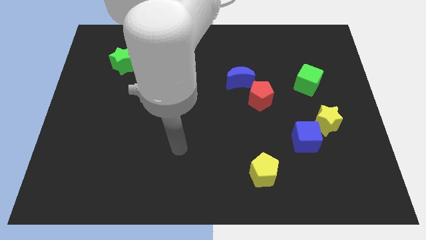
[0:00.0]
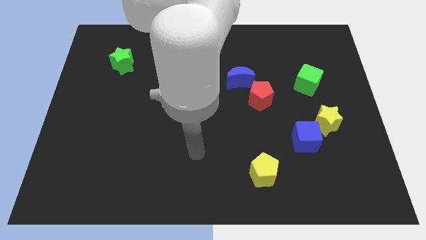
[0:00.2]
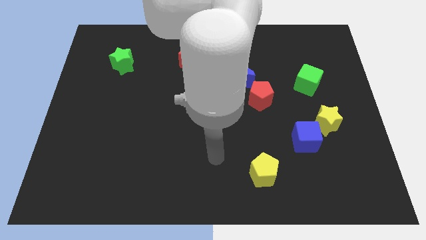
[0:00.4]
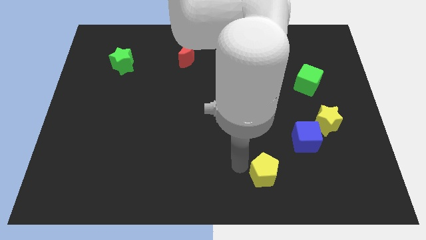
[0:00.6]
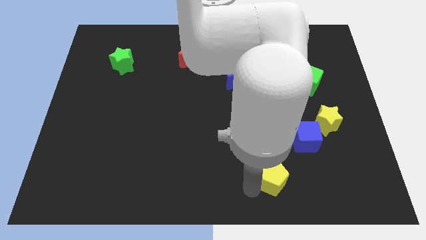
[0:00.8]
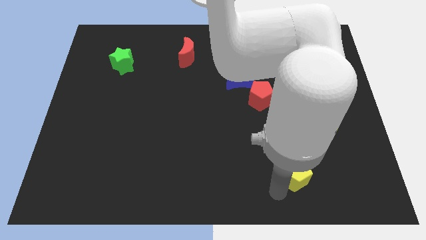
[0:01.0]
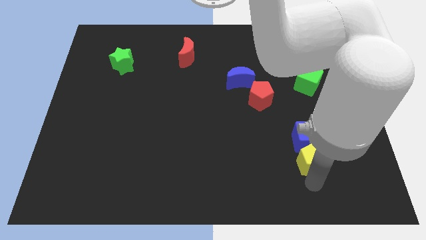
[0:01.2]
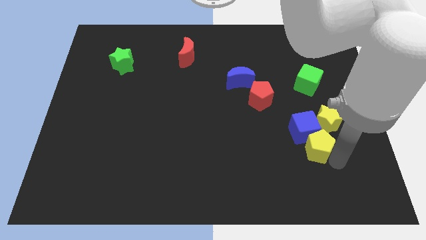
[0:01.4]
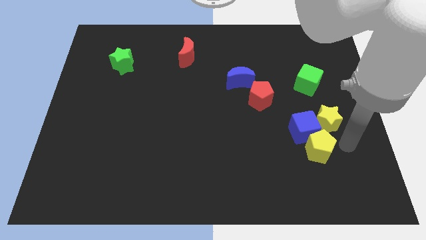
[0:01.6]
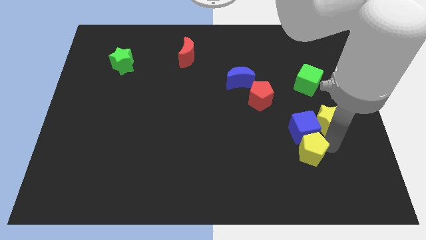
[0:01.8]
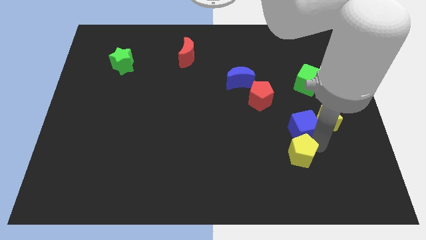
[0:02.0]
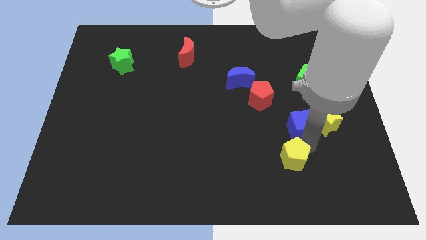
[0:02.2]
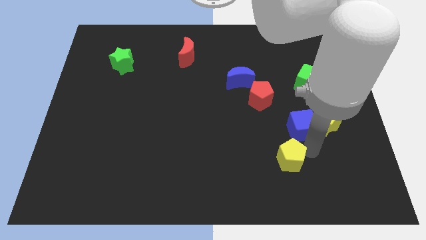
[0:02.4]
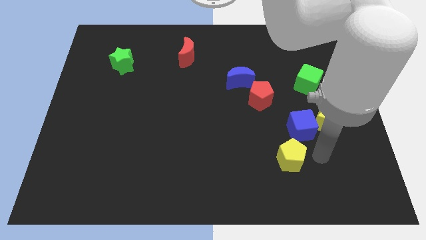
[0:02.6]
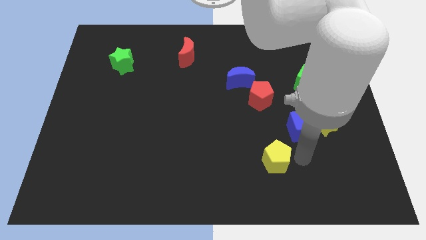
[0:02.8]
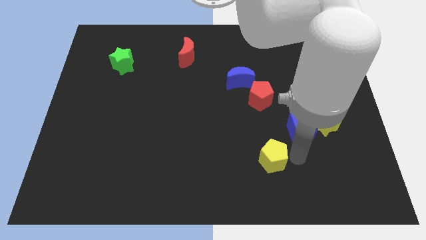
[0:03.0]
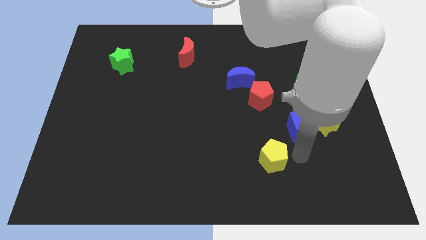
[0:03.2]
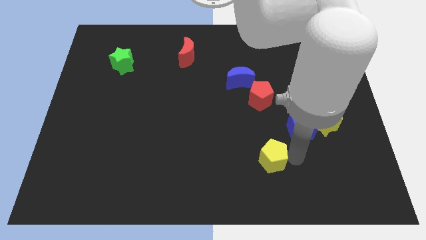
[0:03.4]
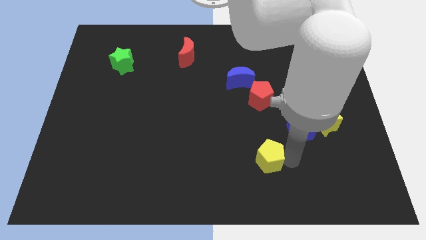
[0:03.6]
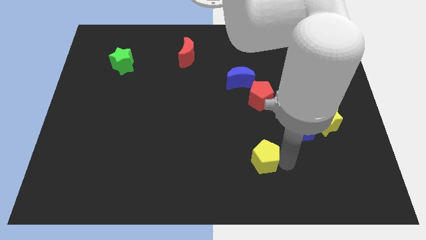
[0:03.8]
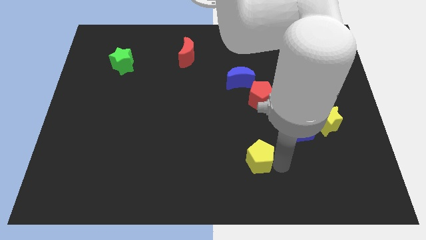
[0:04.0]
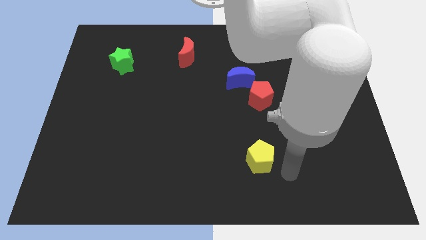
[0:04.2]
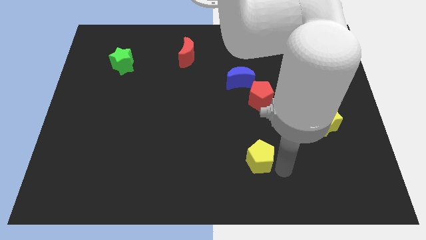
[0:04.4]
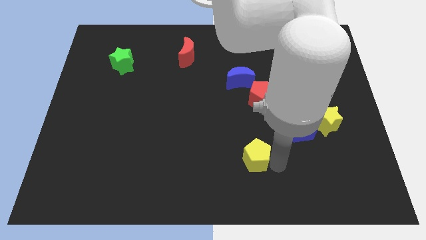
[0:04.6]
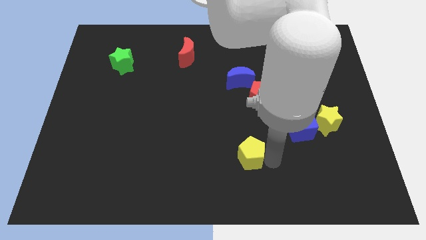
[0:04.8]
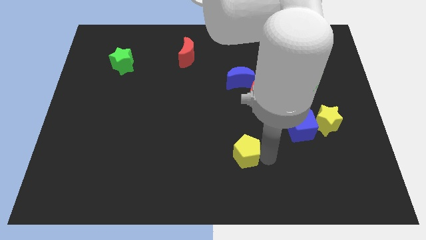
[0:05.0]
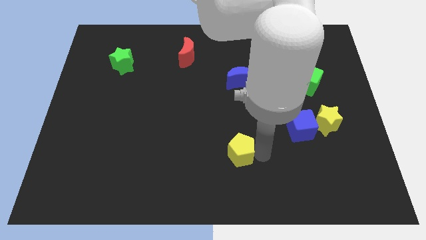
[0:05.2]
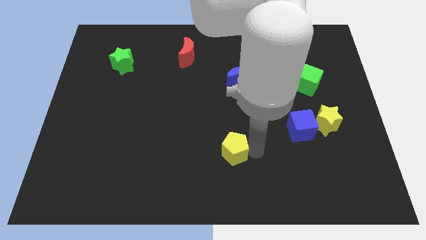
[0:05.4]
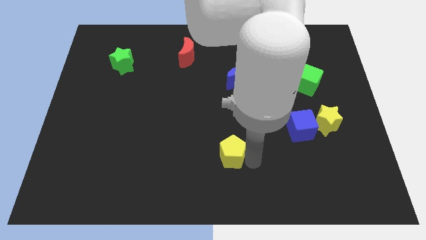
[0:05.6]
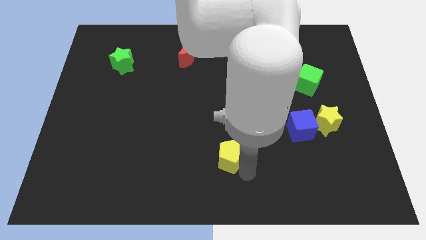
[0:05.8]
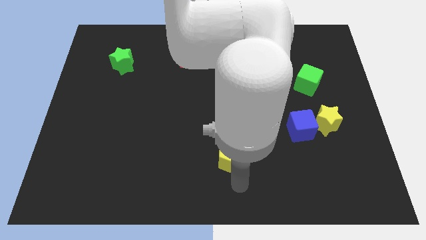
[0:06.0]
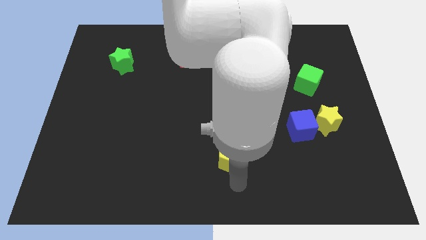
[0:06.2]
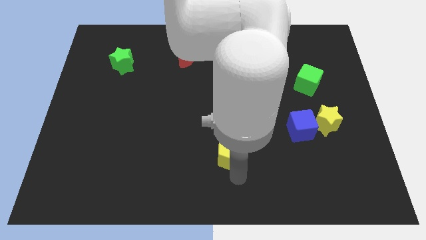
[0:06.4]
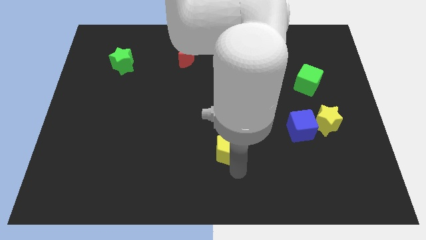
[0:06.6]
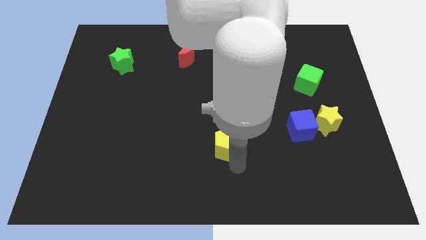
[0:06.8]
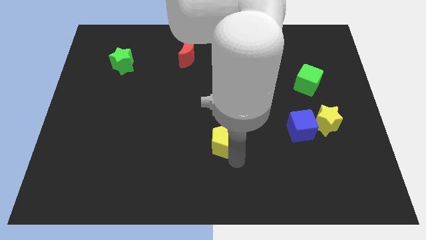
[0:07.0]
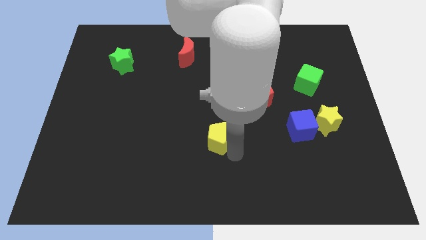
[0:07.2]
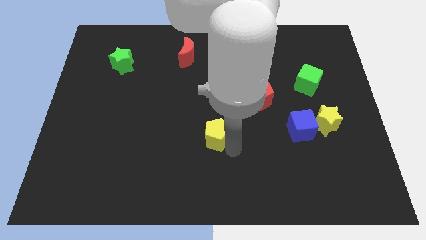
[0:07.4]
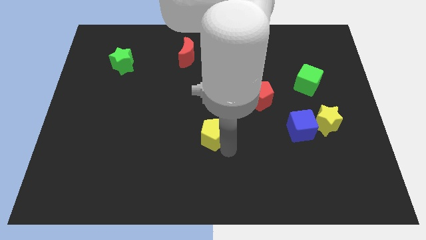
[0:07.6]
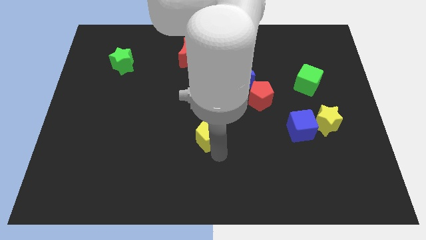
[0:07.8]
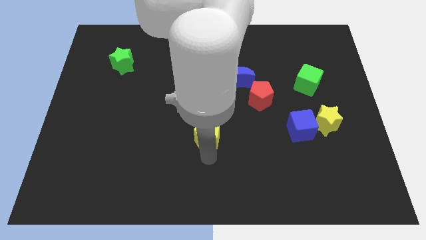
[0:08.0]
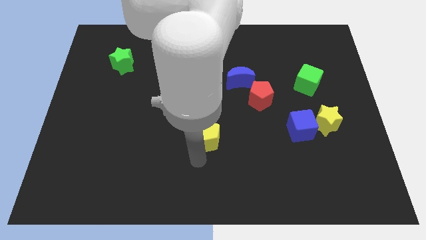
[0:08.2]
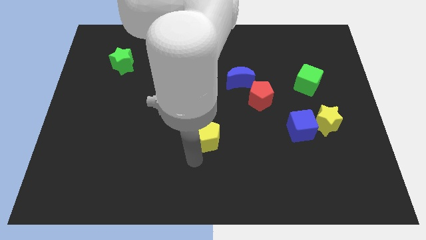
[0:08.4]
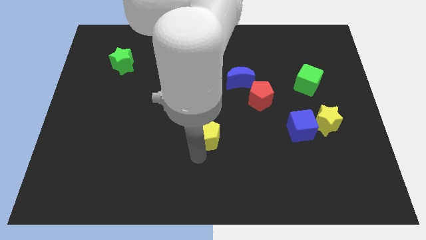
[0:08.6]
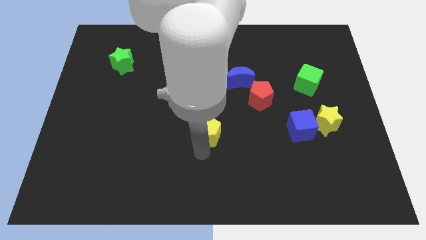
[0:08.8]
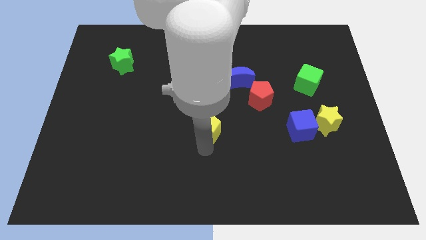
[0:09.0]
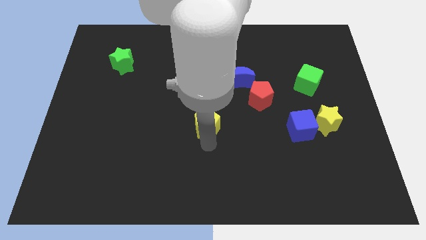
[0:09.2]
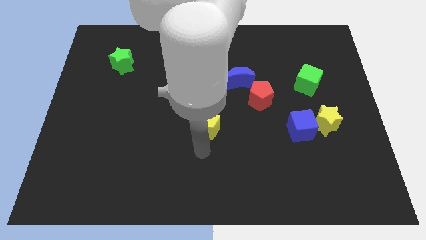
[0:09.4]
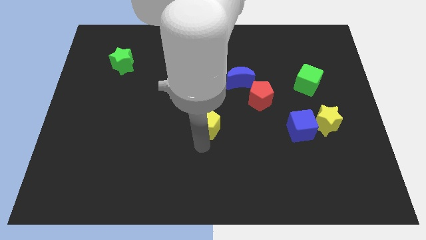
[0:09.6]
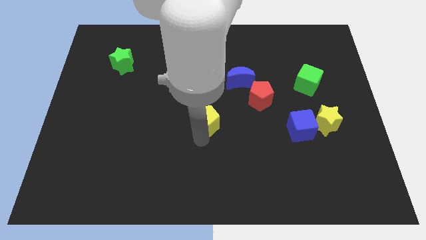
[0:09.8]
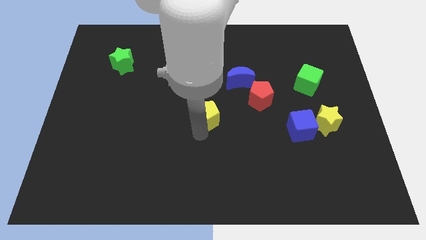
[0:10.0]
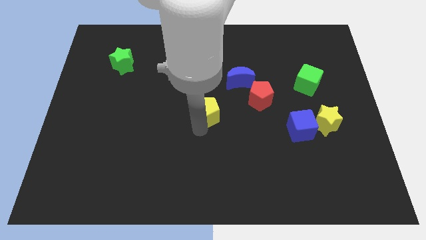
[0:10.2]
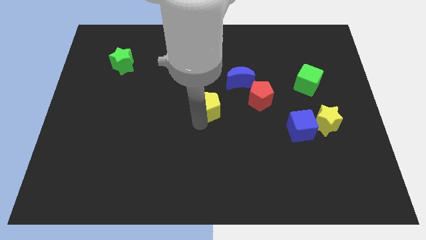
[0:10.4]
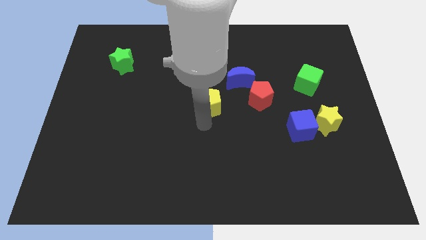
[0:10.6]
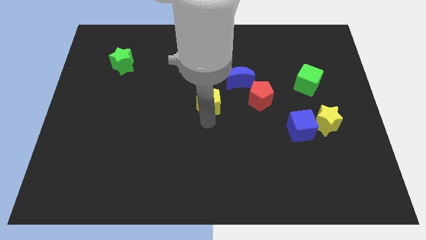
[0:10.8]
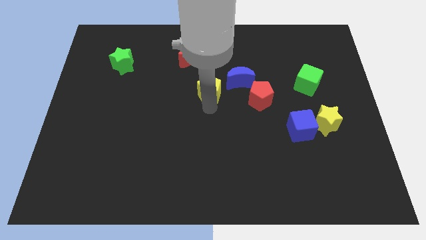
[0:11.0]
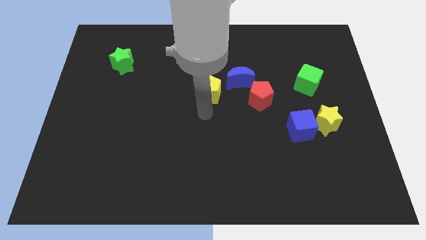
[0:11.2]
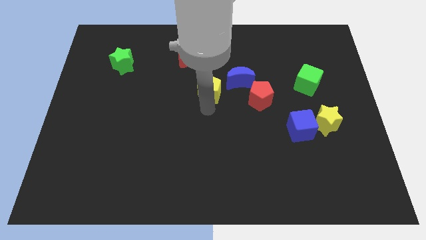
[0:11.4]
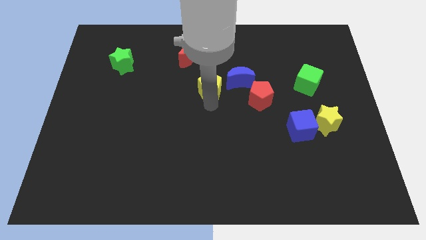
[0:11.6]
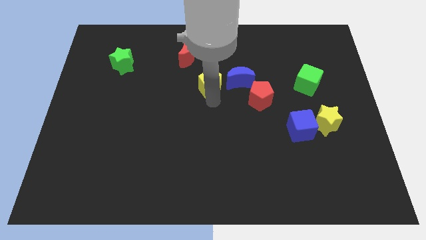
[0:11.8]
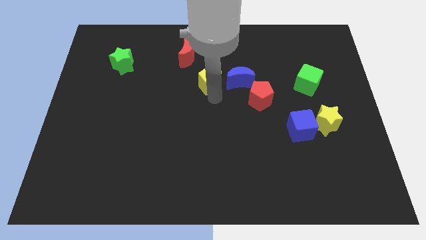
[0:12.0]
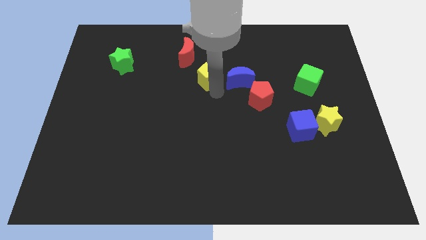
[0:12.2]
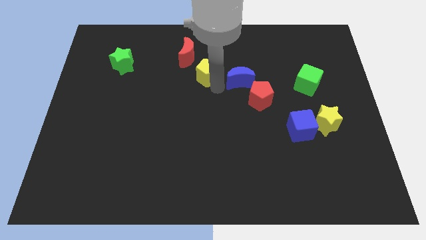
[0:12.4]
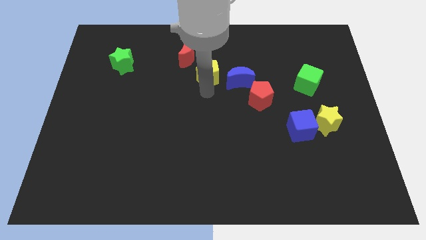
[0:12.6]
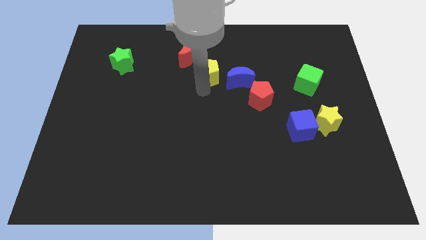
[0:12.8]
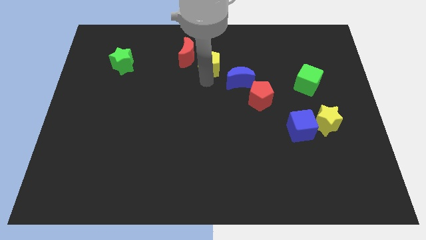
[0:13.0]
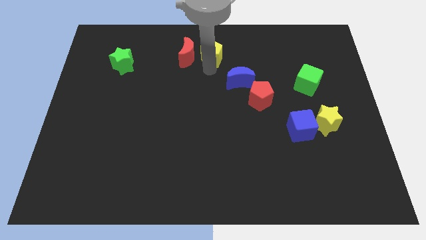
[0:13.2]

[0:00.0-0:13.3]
move the yellow pentagon to the top

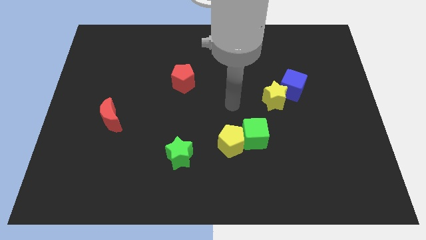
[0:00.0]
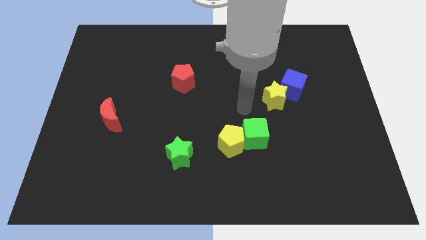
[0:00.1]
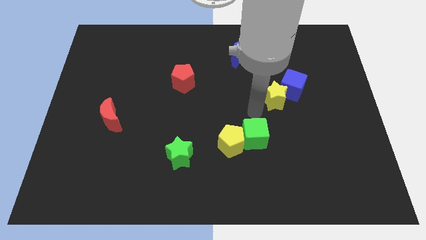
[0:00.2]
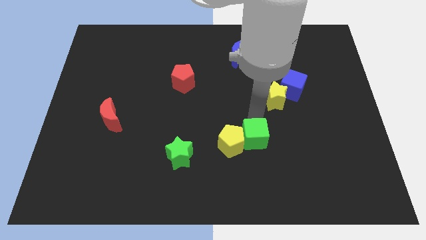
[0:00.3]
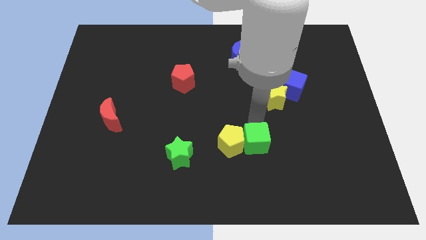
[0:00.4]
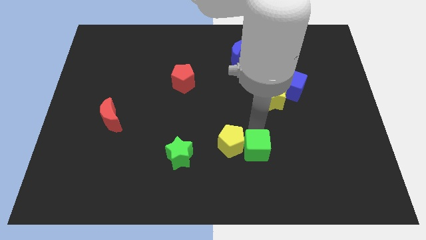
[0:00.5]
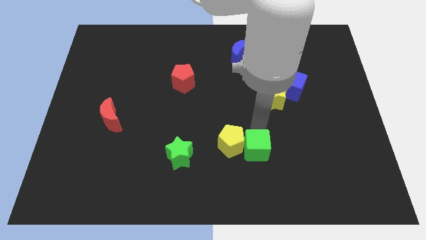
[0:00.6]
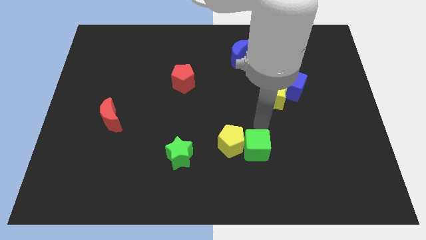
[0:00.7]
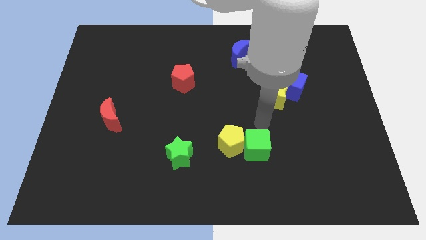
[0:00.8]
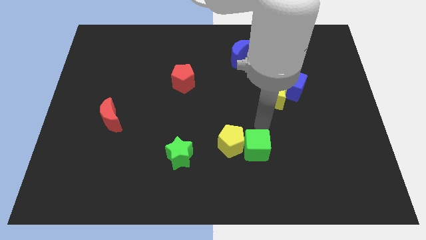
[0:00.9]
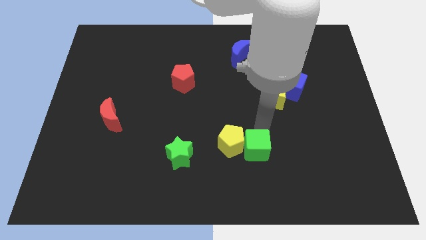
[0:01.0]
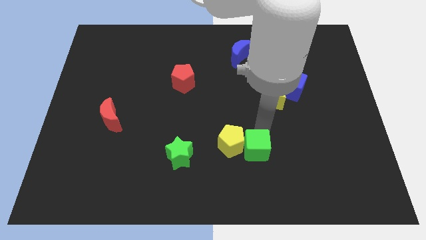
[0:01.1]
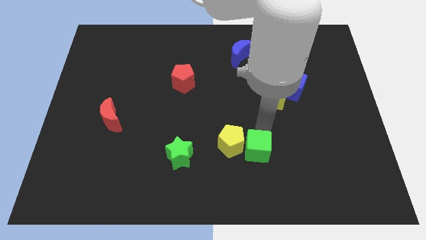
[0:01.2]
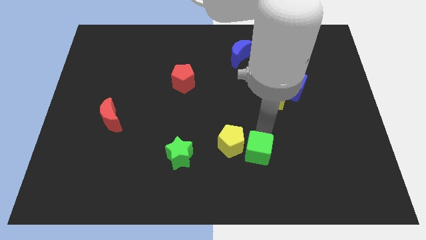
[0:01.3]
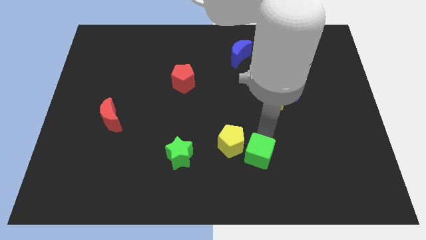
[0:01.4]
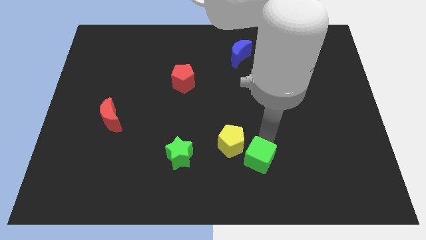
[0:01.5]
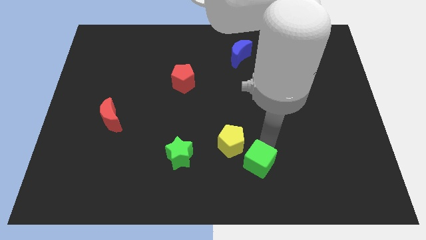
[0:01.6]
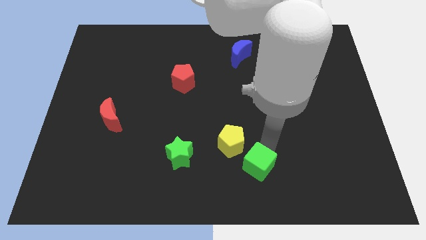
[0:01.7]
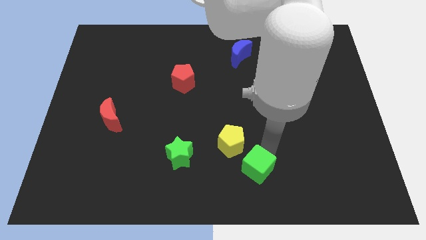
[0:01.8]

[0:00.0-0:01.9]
push the green cube to the bottom
